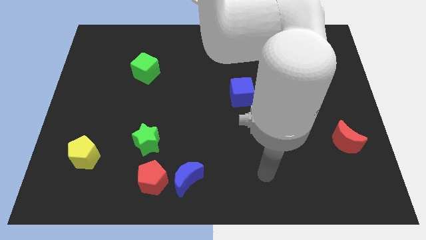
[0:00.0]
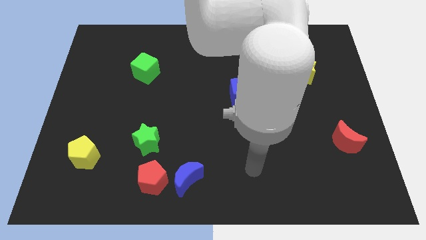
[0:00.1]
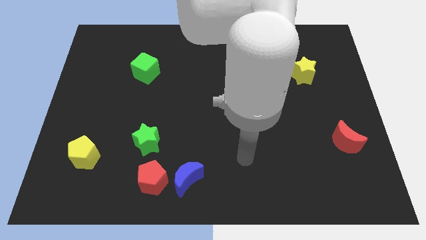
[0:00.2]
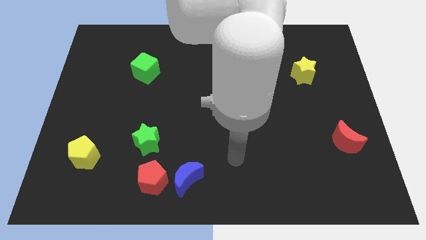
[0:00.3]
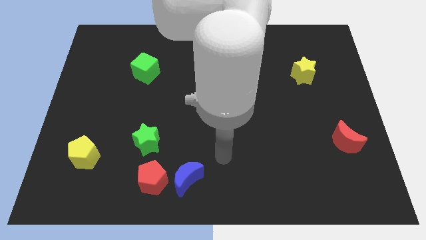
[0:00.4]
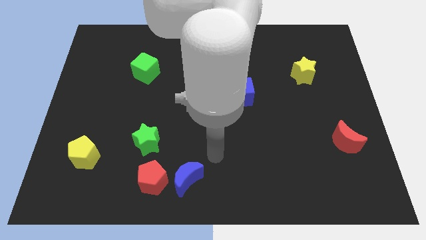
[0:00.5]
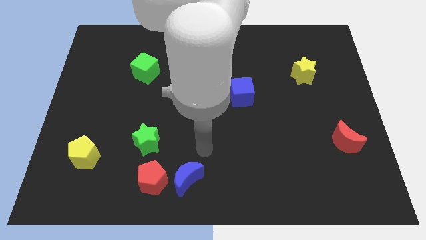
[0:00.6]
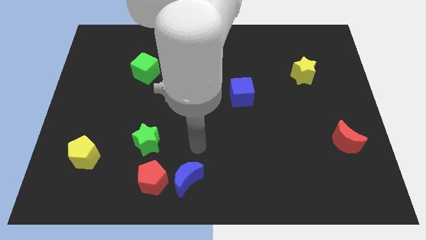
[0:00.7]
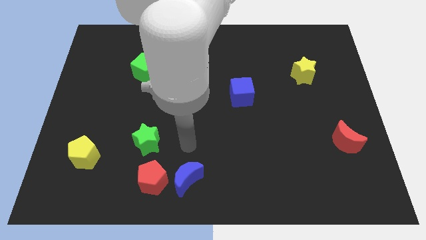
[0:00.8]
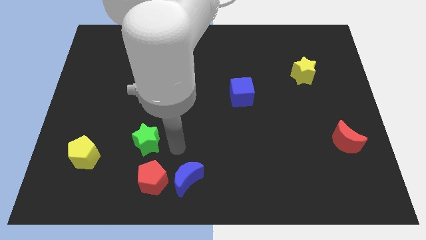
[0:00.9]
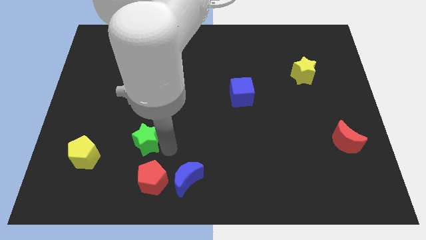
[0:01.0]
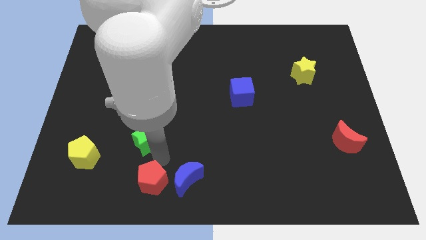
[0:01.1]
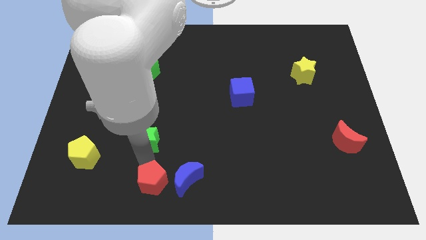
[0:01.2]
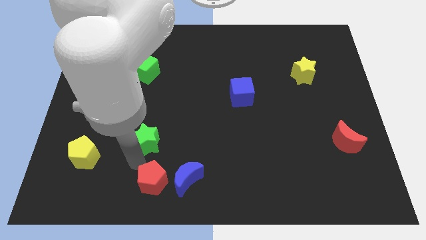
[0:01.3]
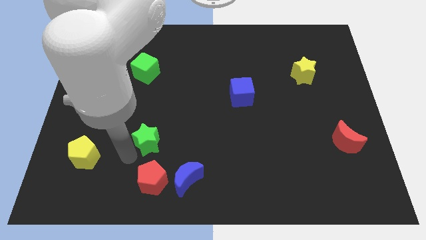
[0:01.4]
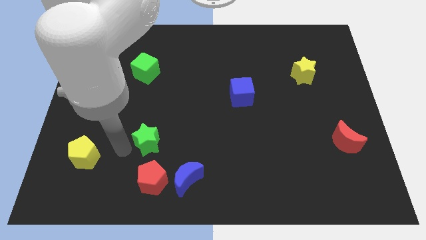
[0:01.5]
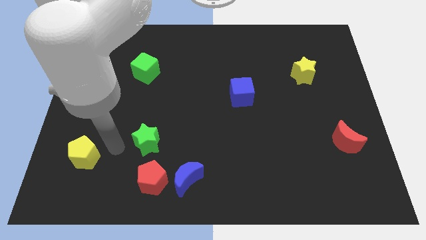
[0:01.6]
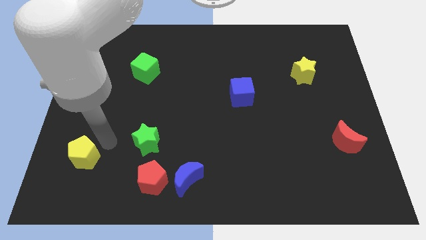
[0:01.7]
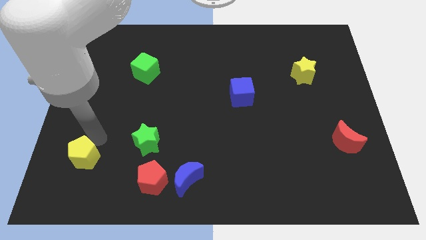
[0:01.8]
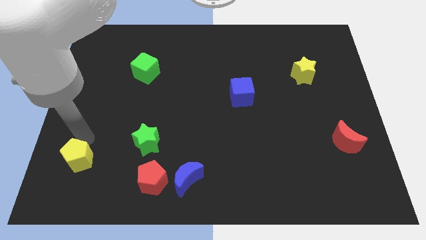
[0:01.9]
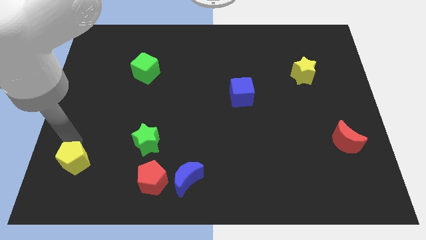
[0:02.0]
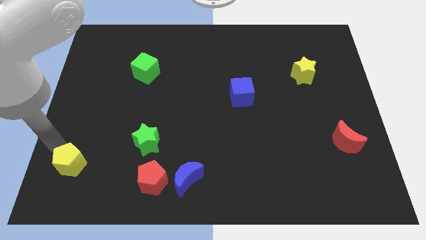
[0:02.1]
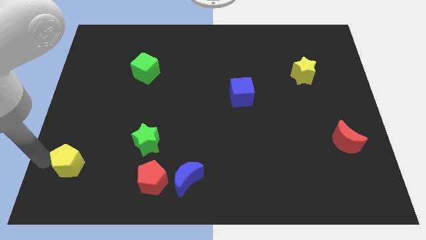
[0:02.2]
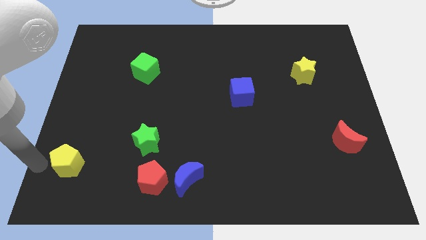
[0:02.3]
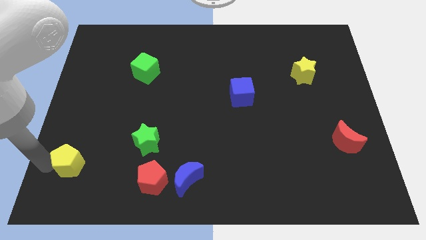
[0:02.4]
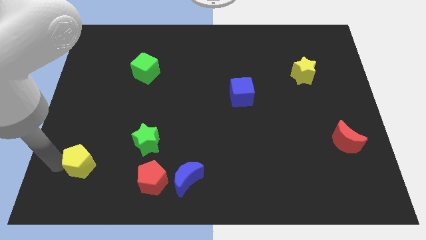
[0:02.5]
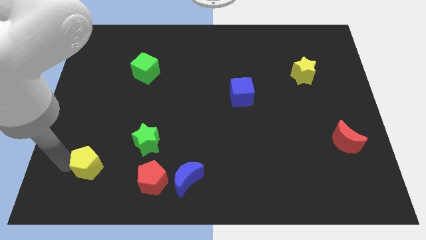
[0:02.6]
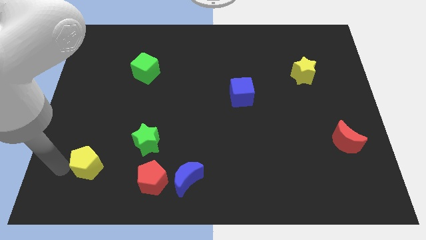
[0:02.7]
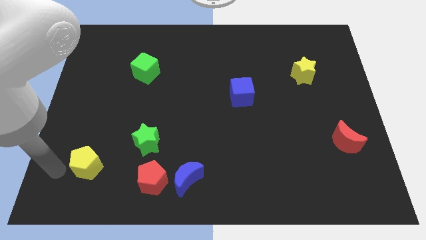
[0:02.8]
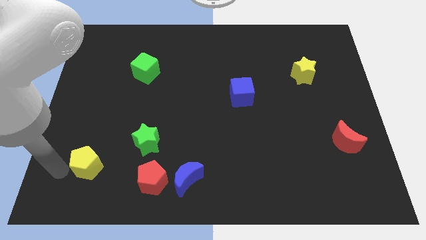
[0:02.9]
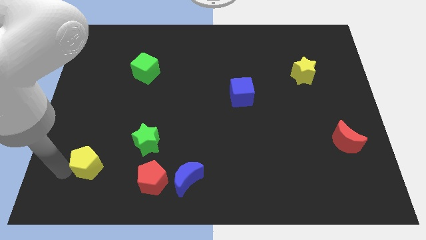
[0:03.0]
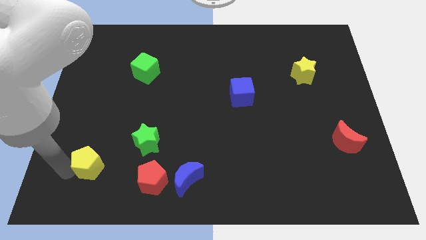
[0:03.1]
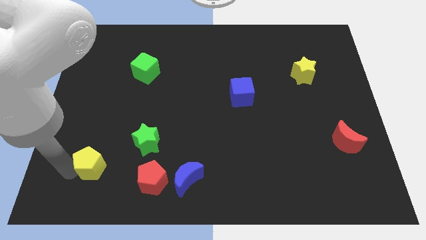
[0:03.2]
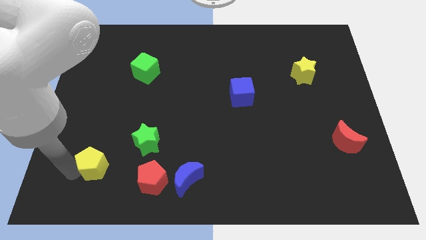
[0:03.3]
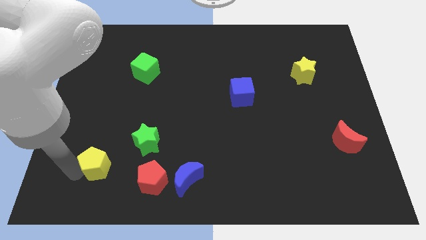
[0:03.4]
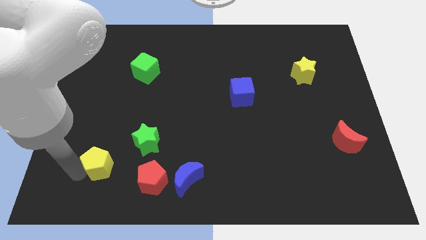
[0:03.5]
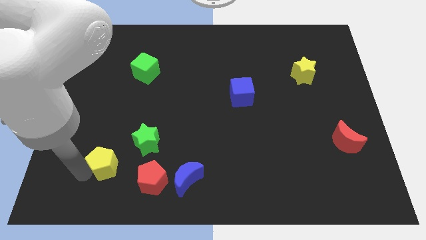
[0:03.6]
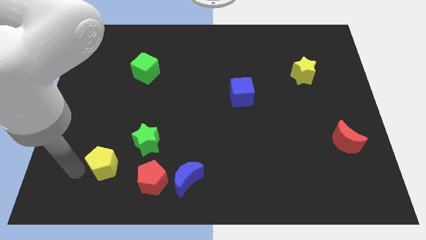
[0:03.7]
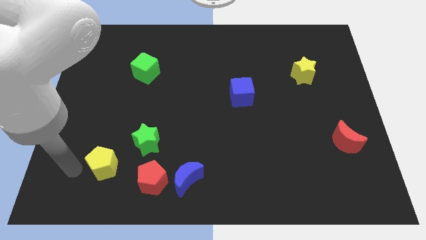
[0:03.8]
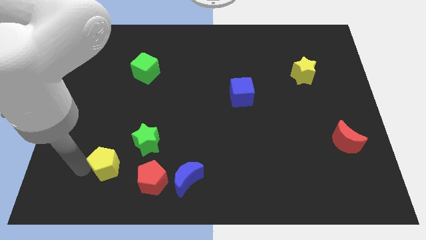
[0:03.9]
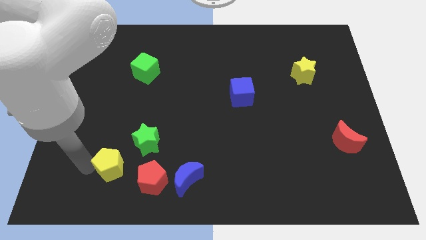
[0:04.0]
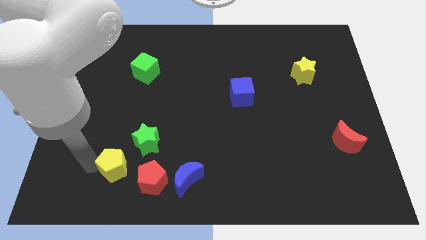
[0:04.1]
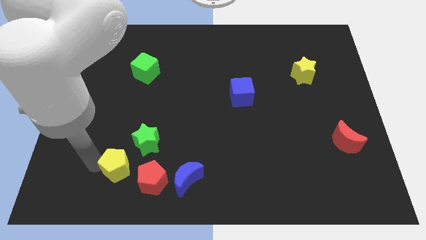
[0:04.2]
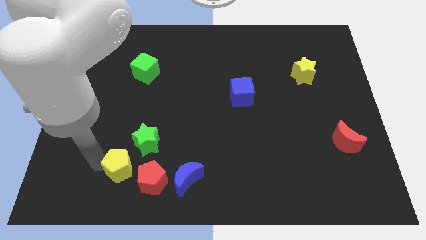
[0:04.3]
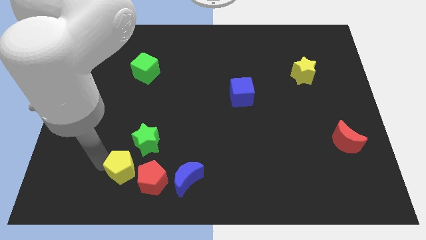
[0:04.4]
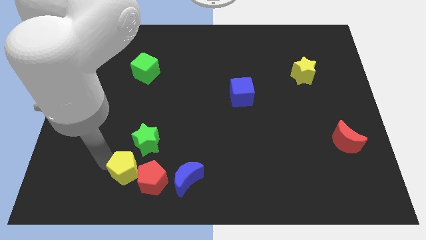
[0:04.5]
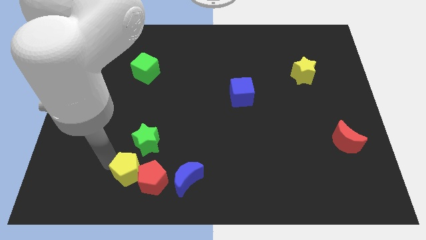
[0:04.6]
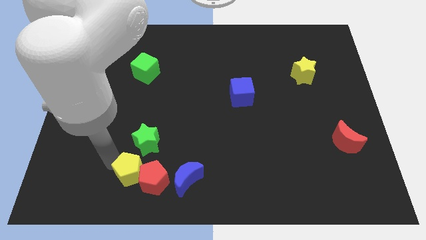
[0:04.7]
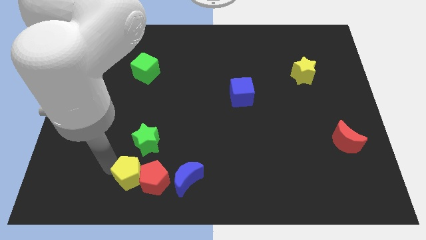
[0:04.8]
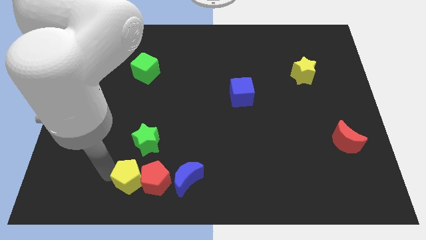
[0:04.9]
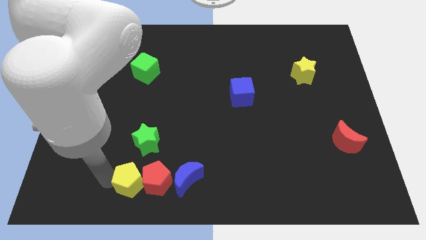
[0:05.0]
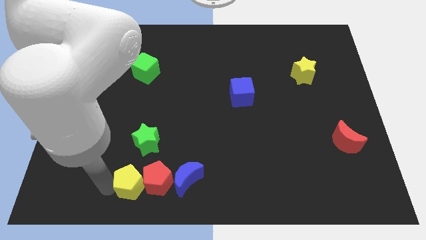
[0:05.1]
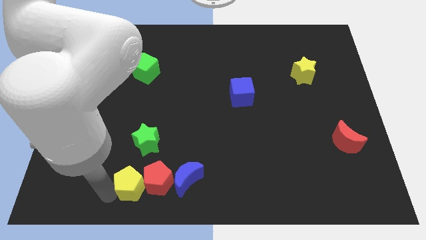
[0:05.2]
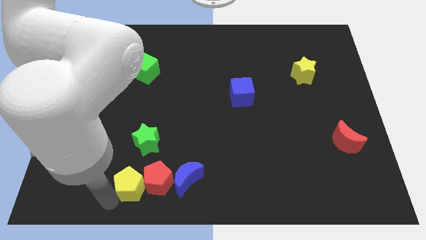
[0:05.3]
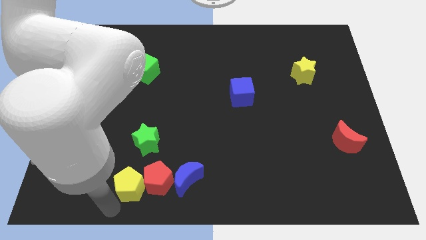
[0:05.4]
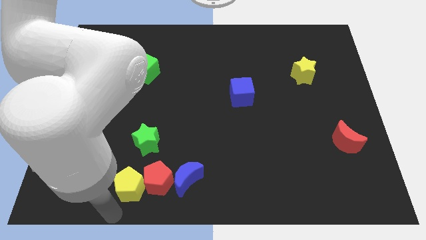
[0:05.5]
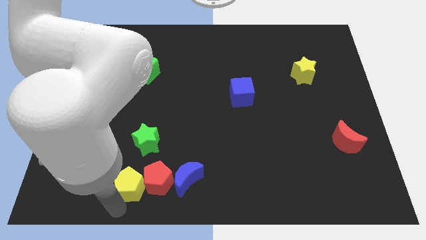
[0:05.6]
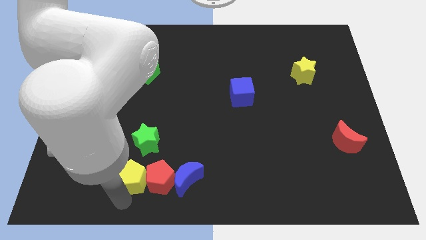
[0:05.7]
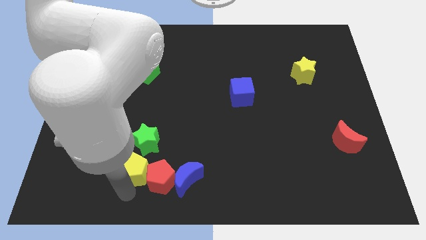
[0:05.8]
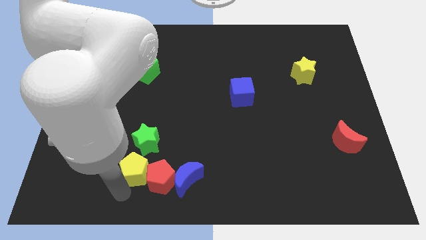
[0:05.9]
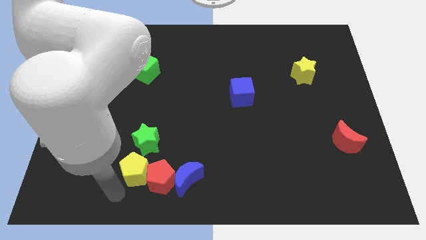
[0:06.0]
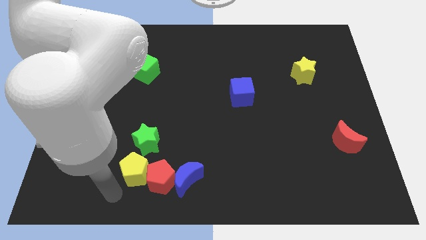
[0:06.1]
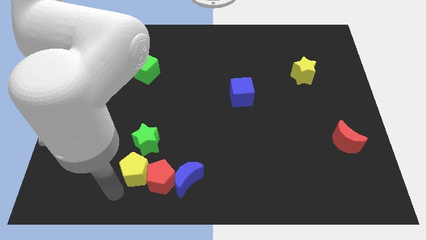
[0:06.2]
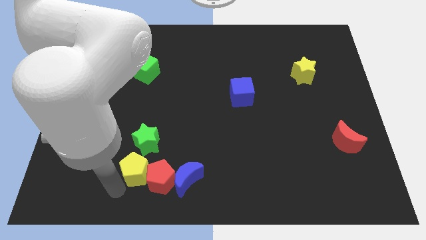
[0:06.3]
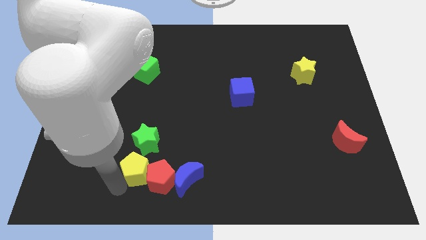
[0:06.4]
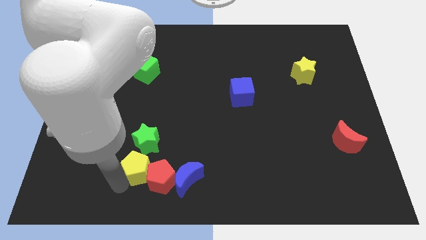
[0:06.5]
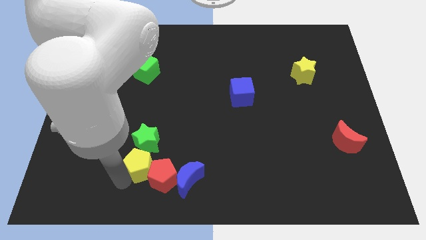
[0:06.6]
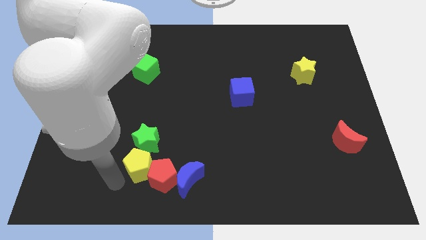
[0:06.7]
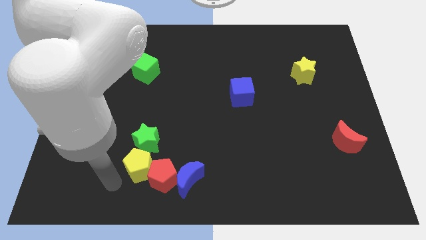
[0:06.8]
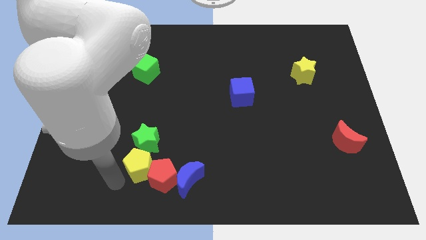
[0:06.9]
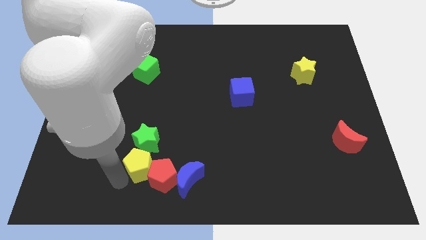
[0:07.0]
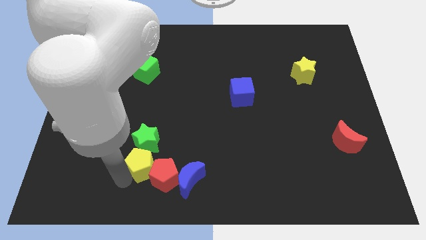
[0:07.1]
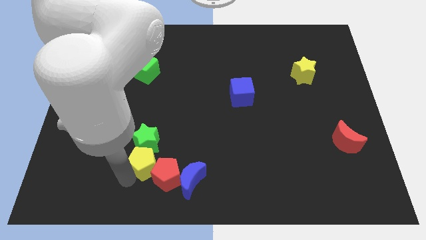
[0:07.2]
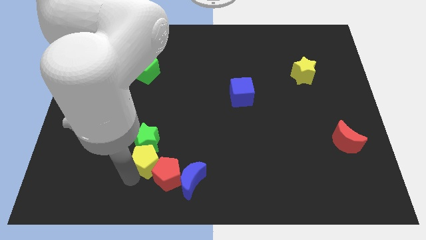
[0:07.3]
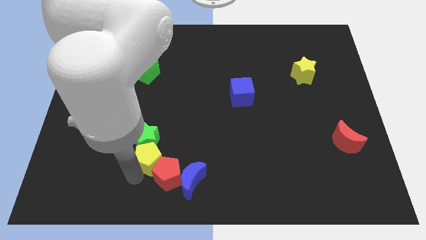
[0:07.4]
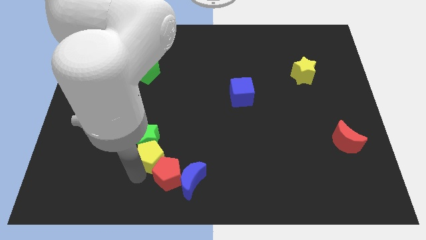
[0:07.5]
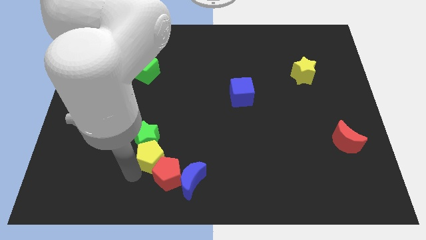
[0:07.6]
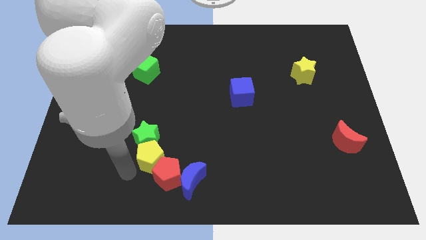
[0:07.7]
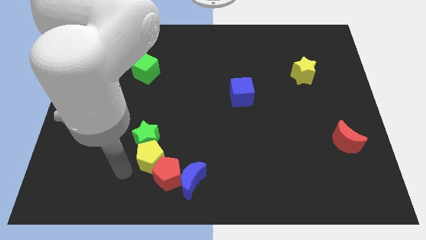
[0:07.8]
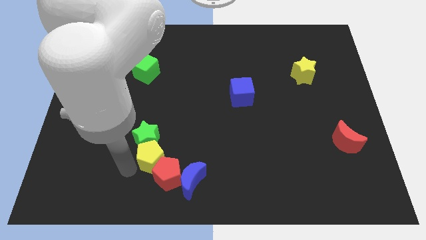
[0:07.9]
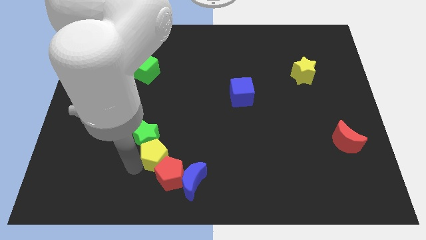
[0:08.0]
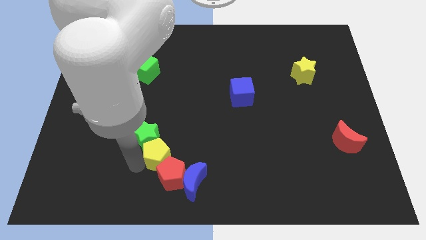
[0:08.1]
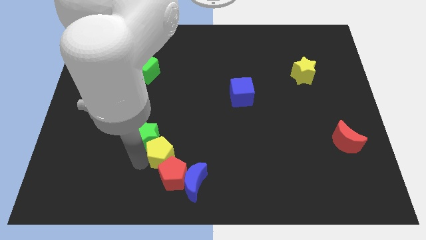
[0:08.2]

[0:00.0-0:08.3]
put the yellow pentagon just right of the green star
